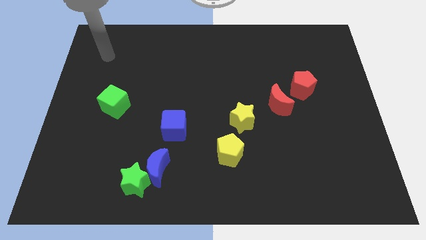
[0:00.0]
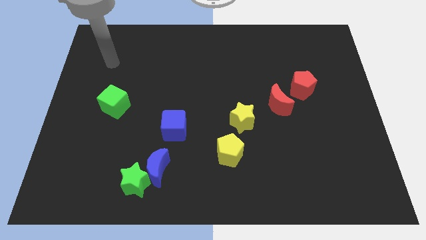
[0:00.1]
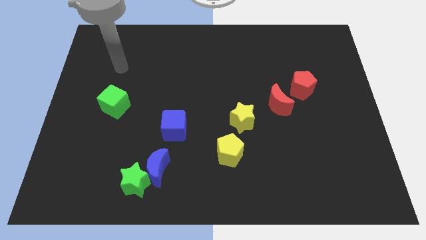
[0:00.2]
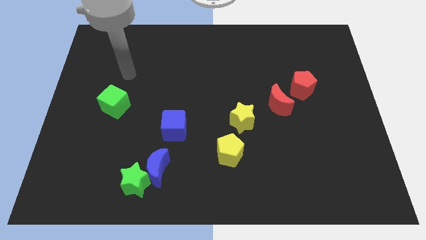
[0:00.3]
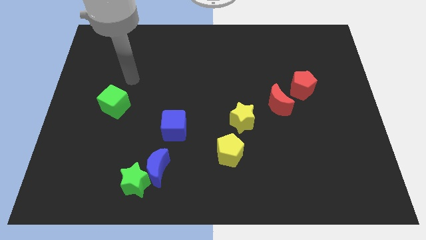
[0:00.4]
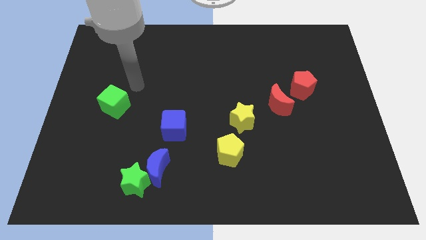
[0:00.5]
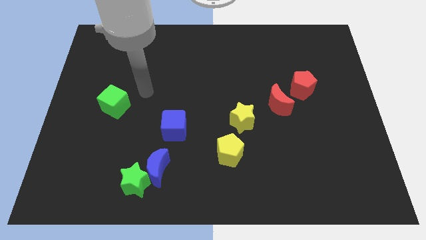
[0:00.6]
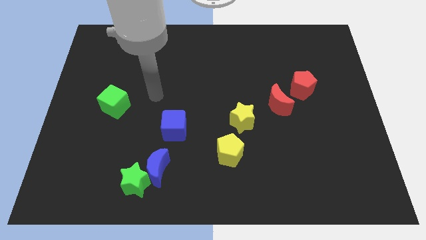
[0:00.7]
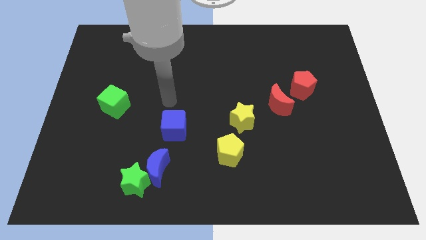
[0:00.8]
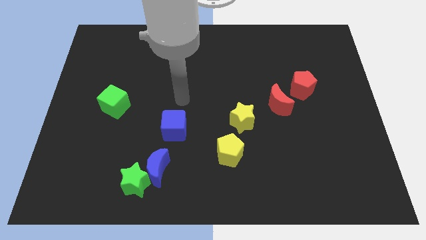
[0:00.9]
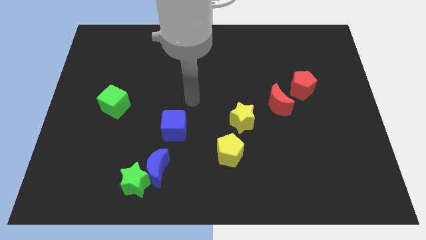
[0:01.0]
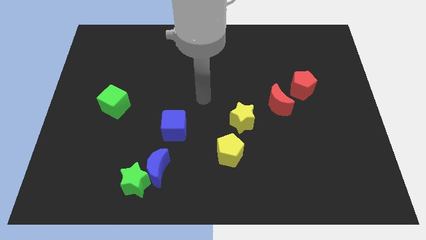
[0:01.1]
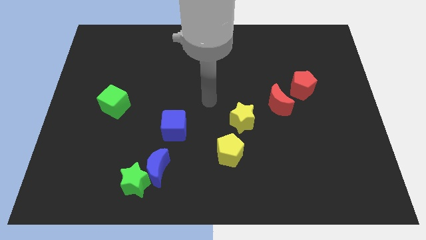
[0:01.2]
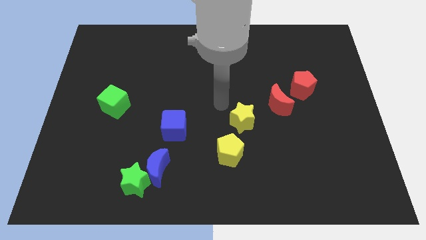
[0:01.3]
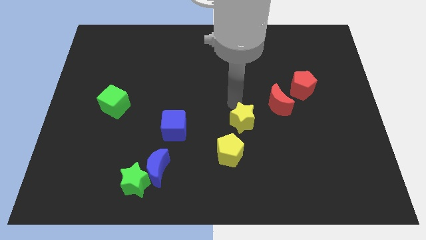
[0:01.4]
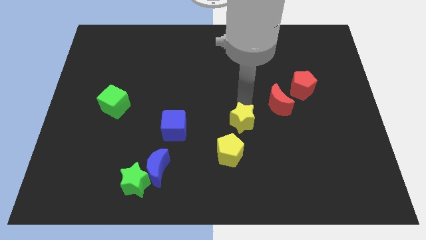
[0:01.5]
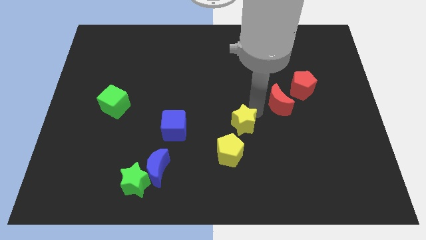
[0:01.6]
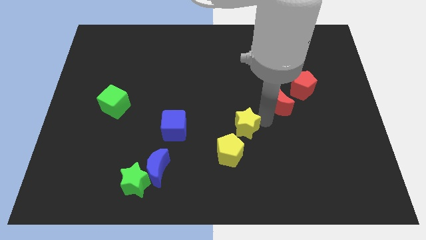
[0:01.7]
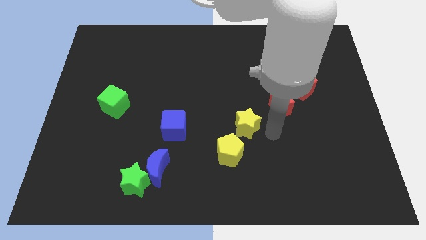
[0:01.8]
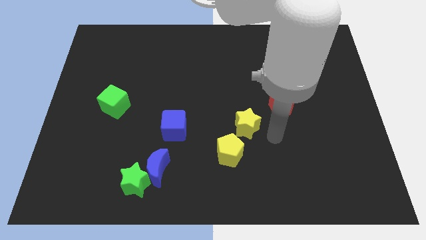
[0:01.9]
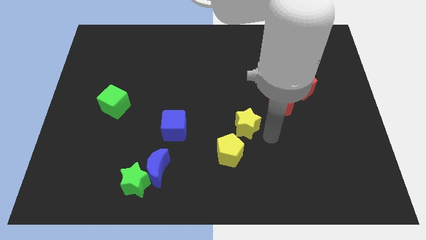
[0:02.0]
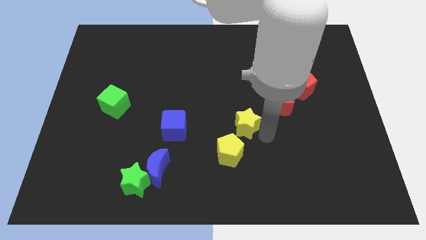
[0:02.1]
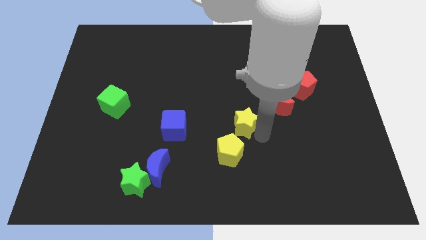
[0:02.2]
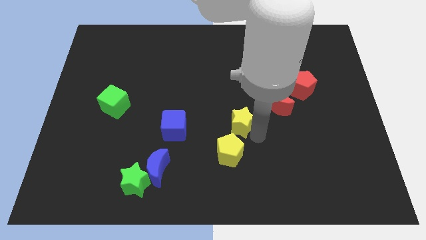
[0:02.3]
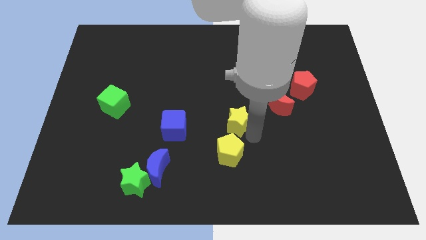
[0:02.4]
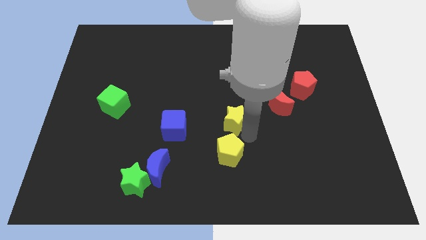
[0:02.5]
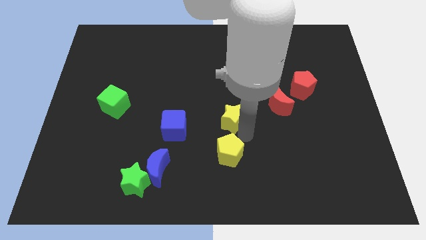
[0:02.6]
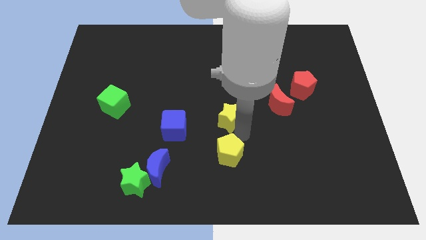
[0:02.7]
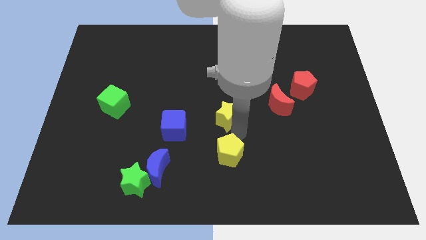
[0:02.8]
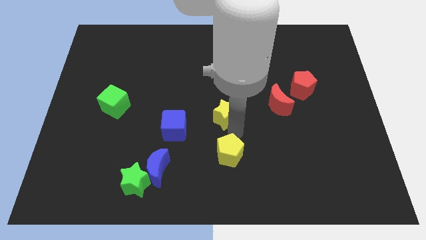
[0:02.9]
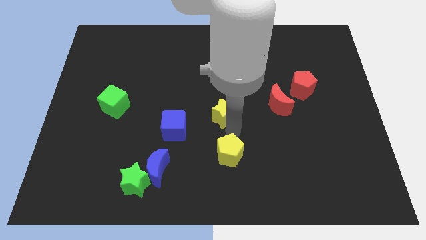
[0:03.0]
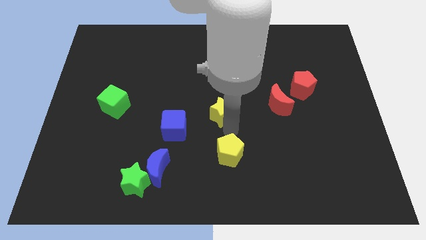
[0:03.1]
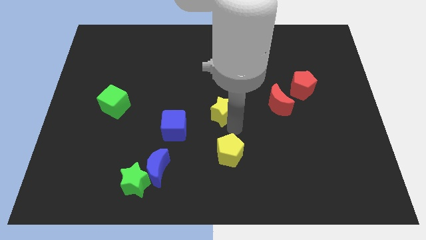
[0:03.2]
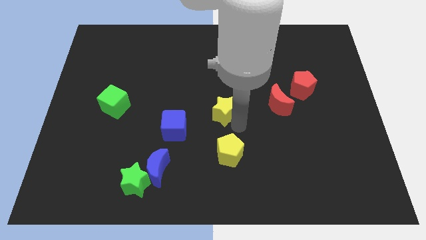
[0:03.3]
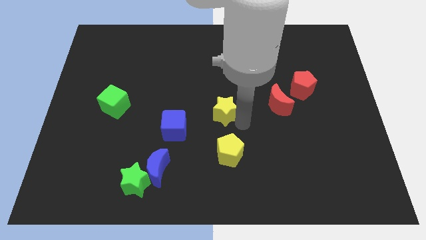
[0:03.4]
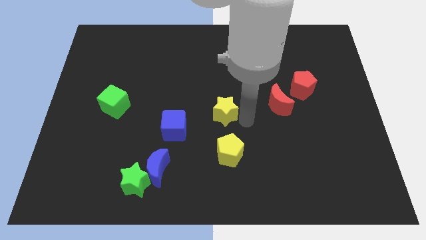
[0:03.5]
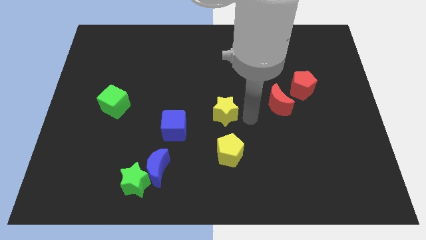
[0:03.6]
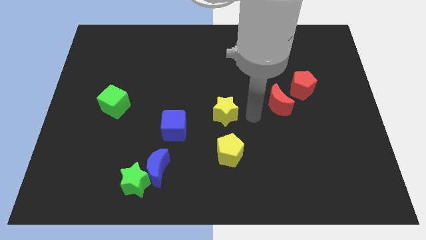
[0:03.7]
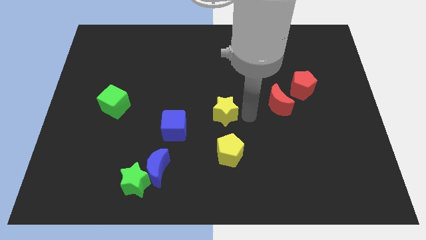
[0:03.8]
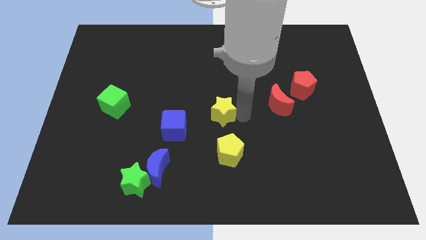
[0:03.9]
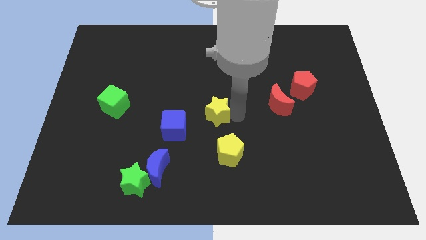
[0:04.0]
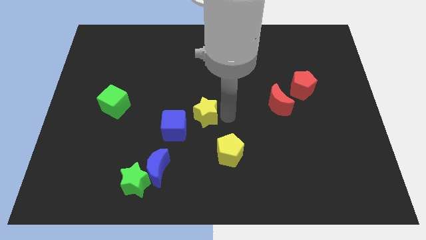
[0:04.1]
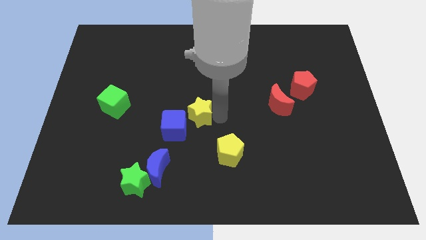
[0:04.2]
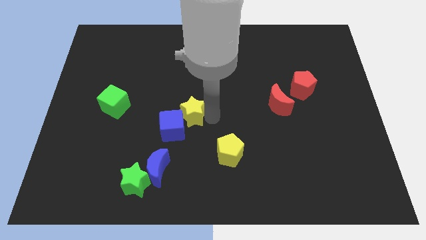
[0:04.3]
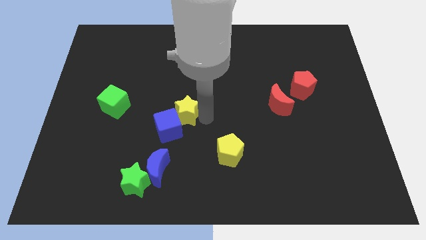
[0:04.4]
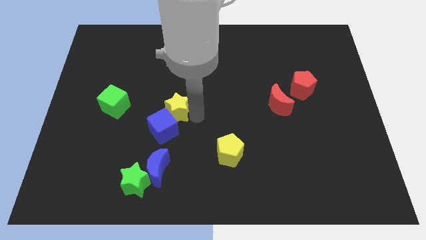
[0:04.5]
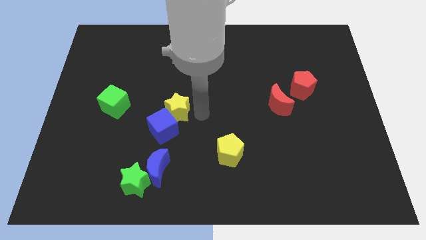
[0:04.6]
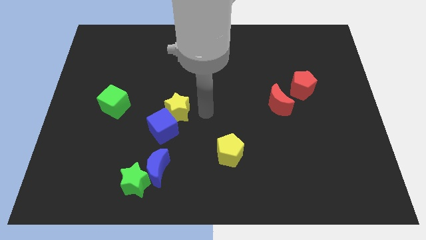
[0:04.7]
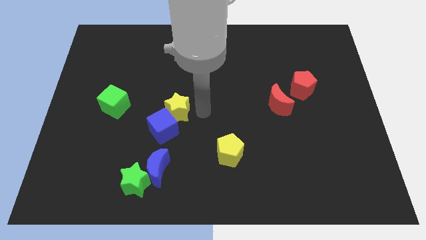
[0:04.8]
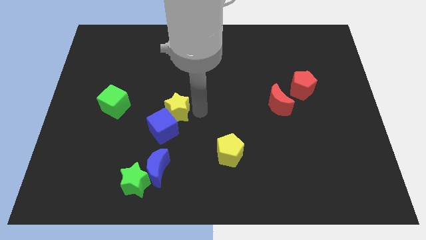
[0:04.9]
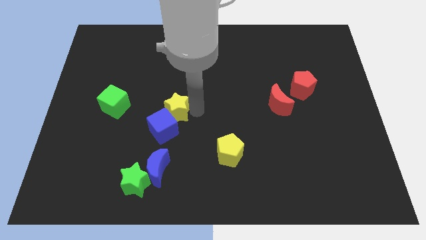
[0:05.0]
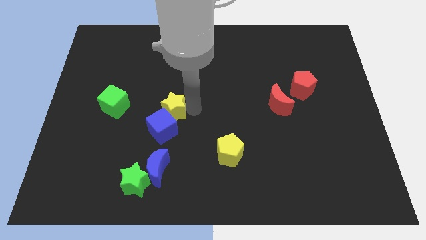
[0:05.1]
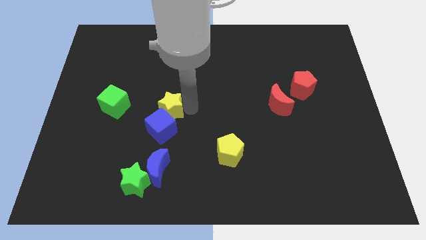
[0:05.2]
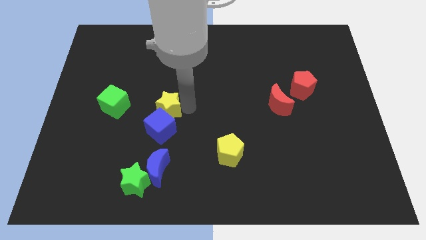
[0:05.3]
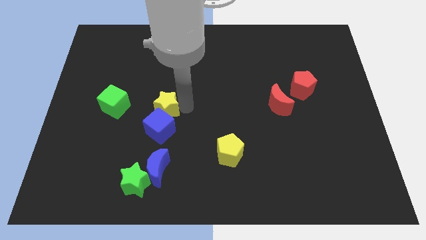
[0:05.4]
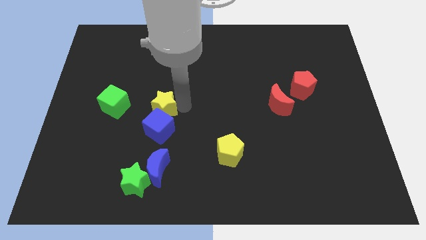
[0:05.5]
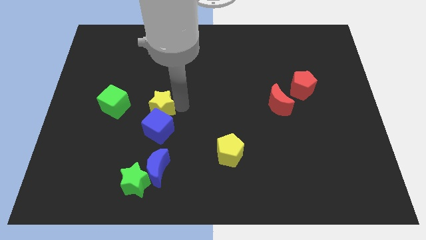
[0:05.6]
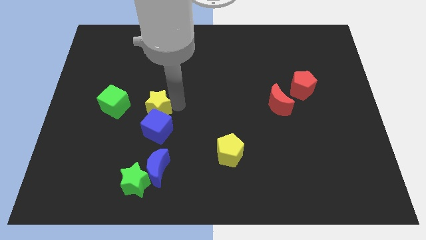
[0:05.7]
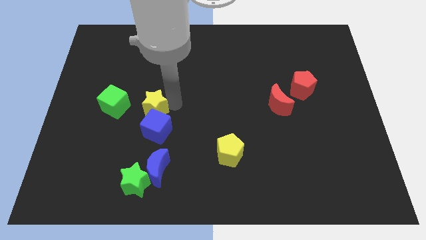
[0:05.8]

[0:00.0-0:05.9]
move the yellow star to the left

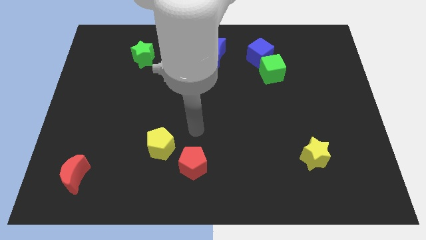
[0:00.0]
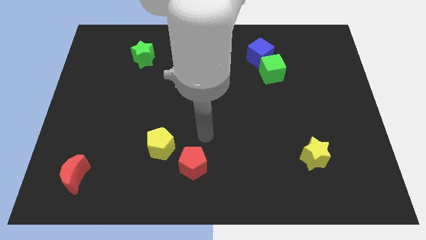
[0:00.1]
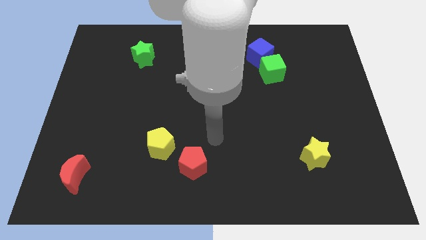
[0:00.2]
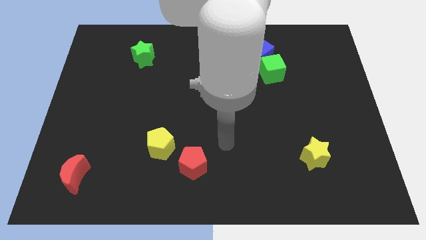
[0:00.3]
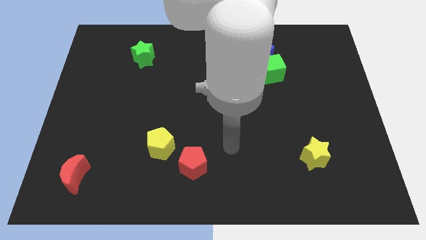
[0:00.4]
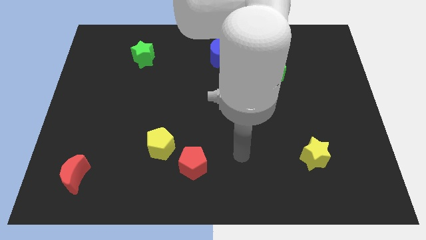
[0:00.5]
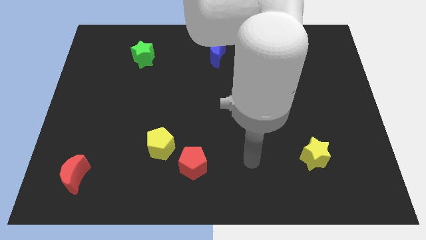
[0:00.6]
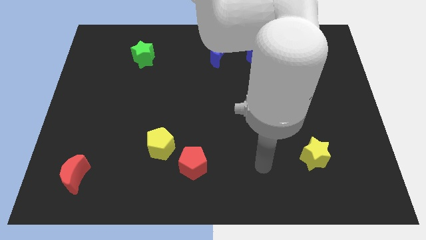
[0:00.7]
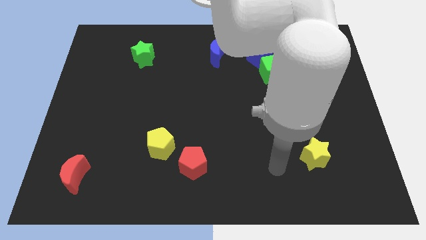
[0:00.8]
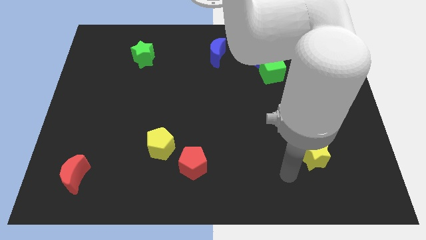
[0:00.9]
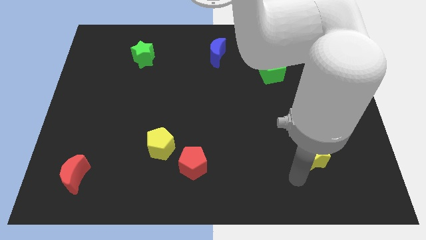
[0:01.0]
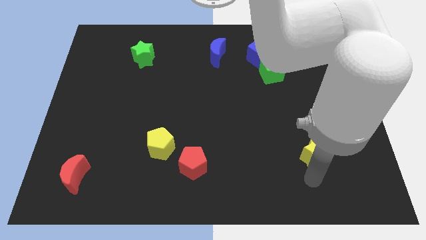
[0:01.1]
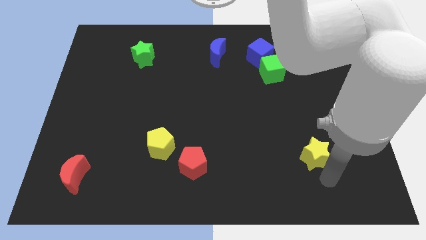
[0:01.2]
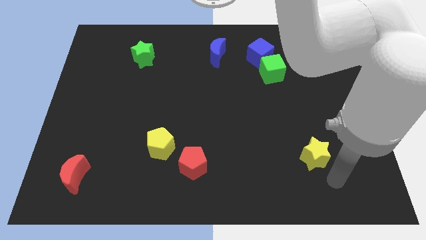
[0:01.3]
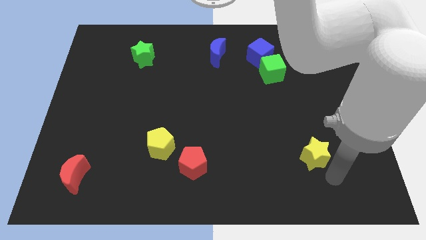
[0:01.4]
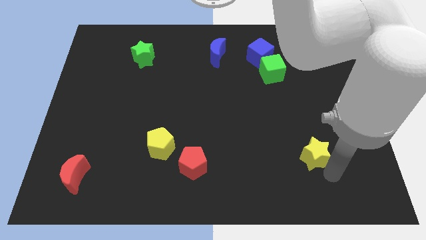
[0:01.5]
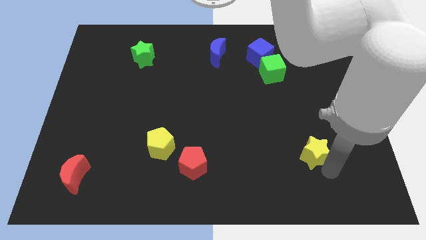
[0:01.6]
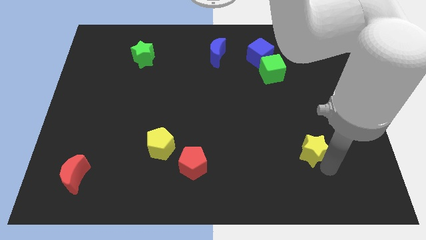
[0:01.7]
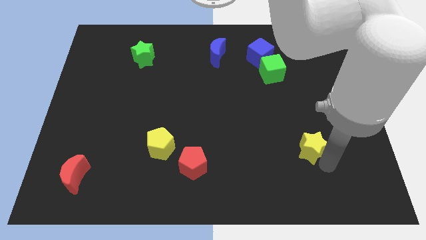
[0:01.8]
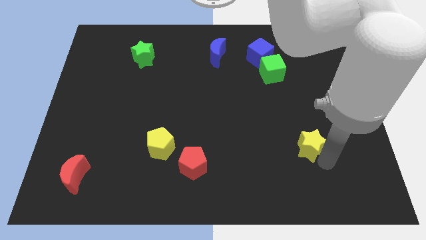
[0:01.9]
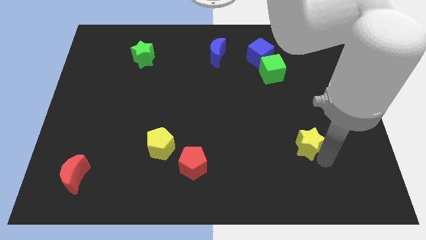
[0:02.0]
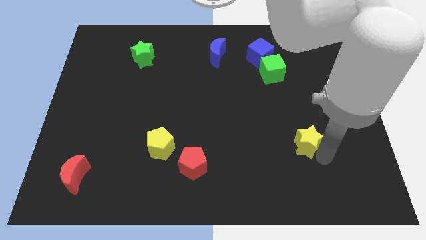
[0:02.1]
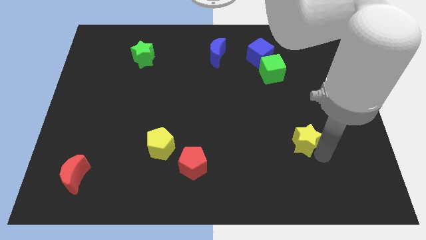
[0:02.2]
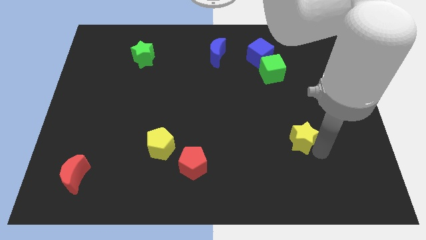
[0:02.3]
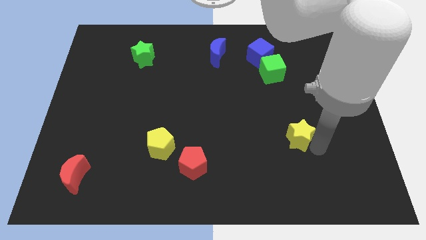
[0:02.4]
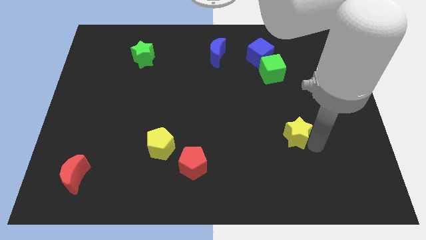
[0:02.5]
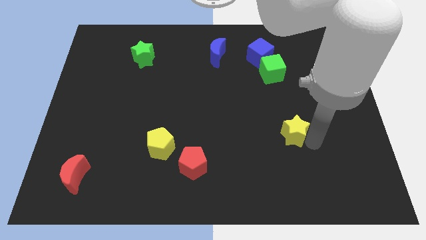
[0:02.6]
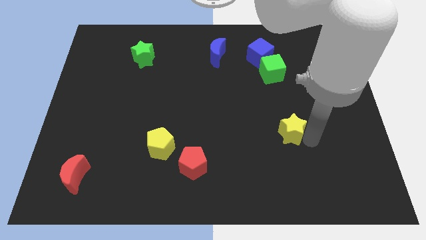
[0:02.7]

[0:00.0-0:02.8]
push the yellow star a bit up and to the left
